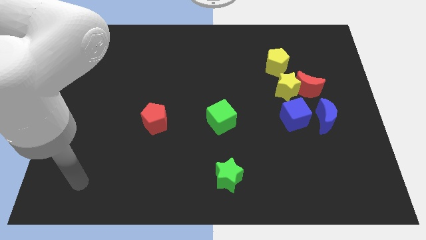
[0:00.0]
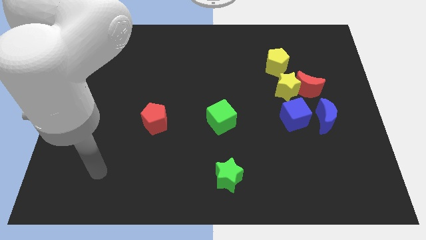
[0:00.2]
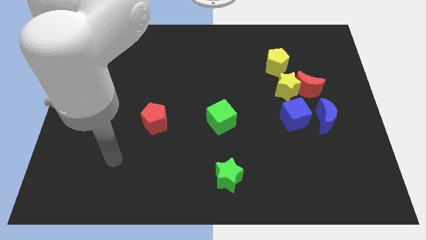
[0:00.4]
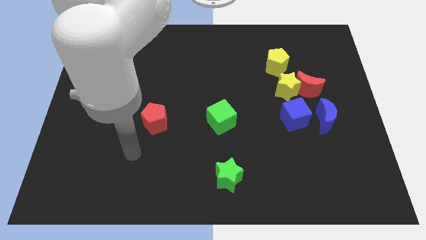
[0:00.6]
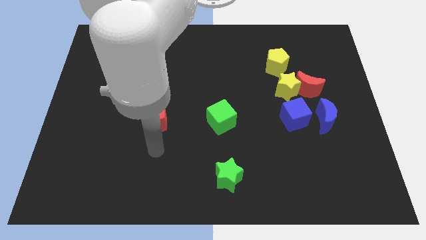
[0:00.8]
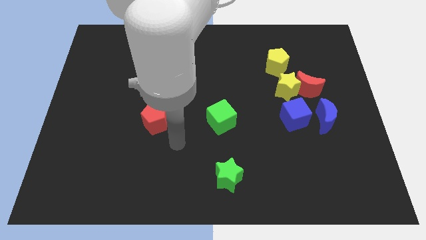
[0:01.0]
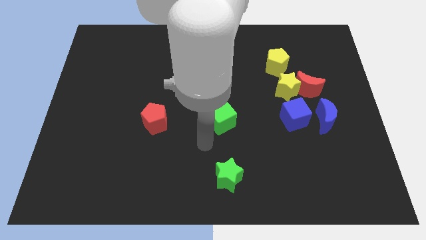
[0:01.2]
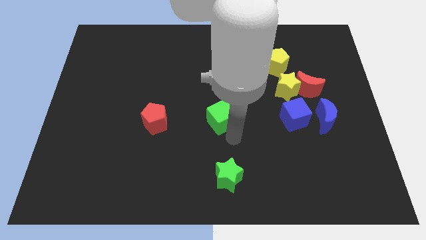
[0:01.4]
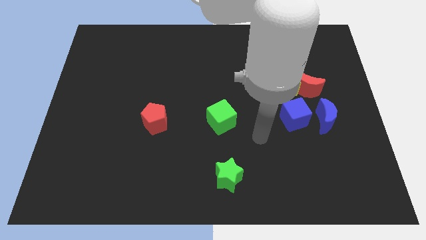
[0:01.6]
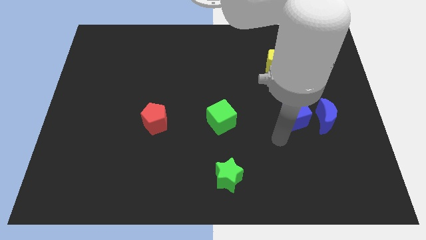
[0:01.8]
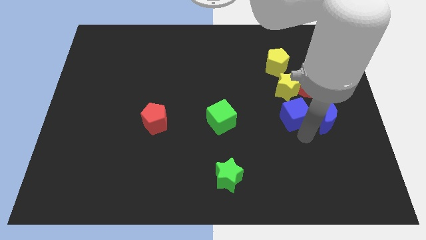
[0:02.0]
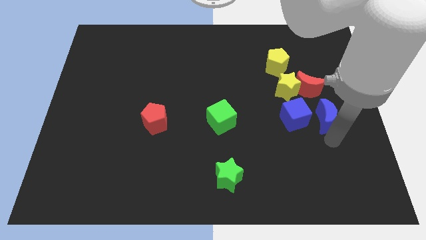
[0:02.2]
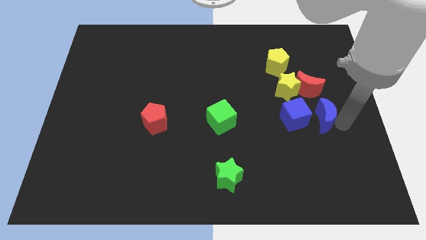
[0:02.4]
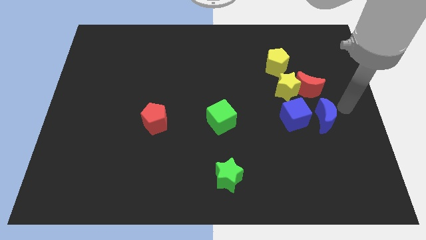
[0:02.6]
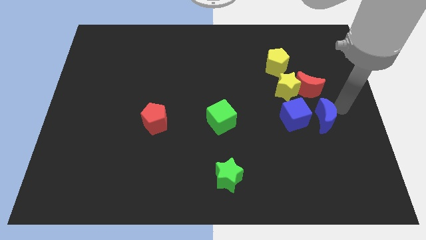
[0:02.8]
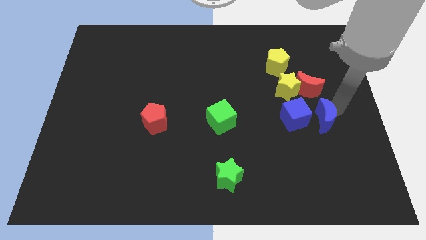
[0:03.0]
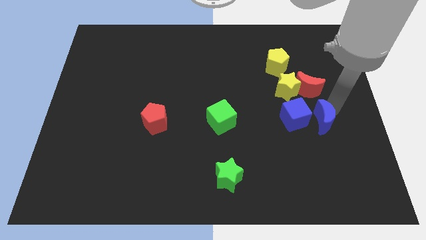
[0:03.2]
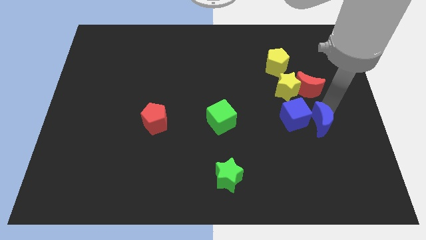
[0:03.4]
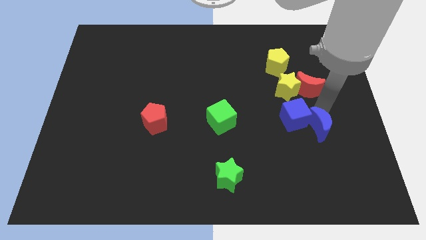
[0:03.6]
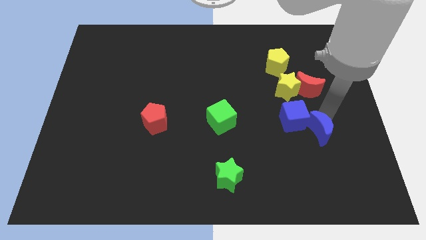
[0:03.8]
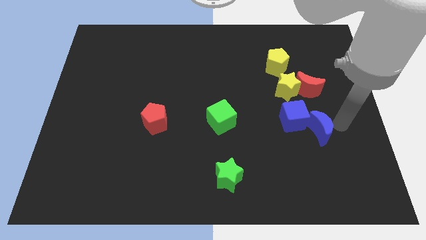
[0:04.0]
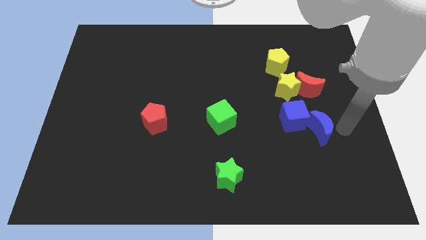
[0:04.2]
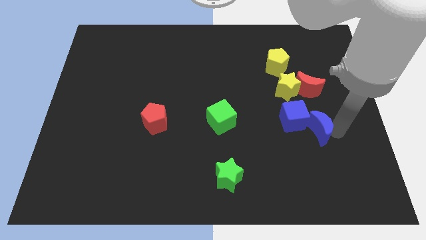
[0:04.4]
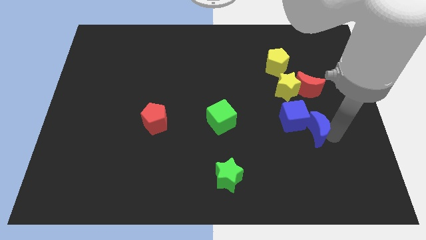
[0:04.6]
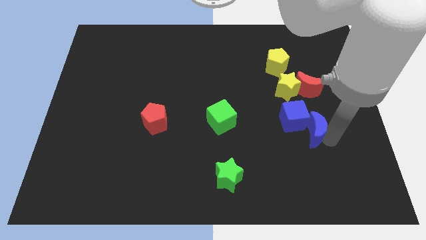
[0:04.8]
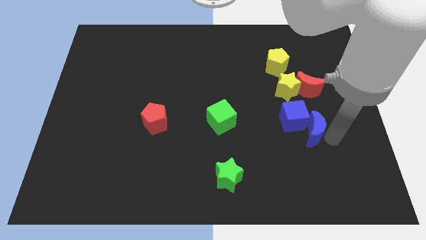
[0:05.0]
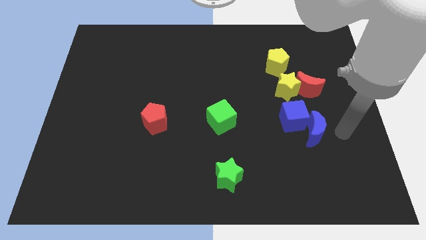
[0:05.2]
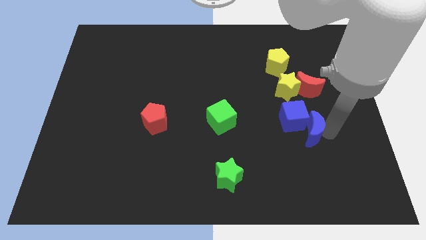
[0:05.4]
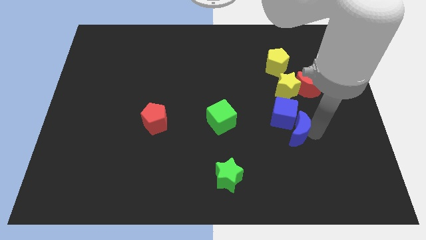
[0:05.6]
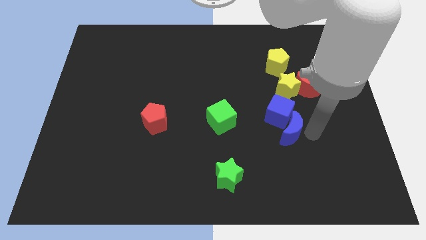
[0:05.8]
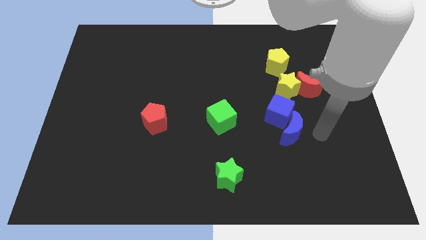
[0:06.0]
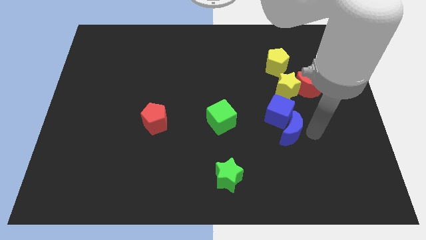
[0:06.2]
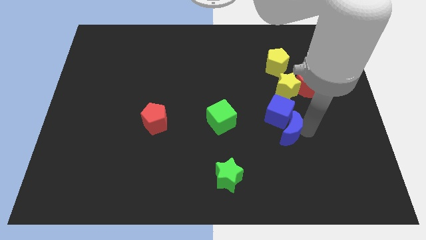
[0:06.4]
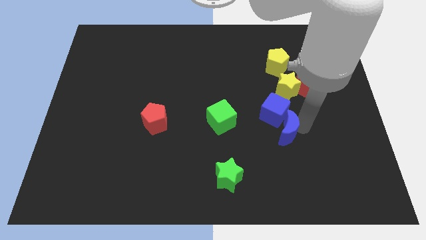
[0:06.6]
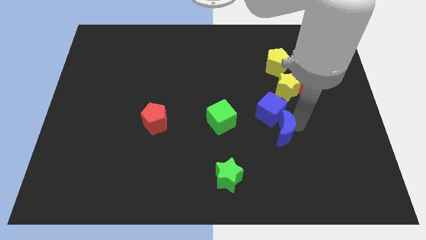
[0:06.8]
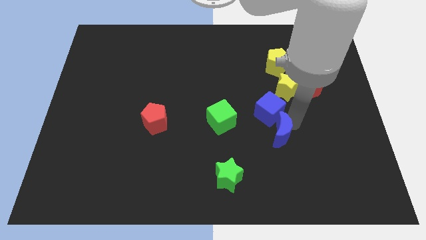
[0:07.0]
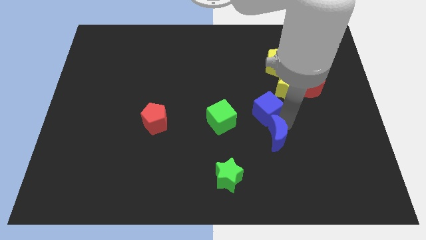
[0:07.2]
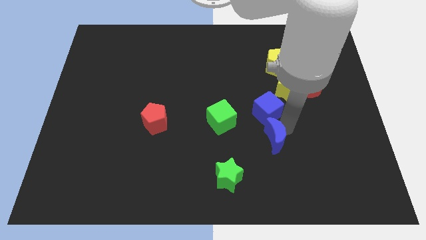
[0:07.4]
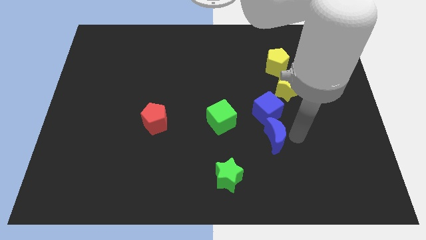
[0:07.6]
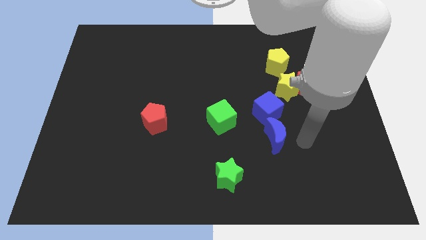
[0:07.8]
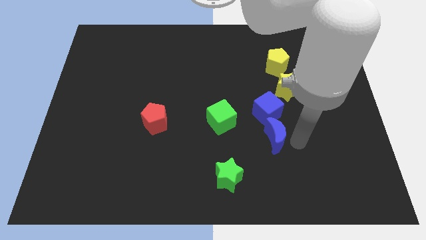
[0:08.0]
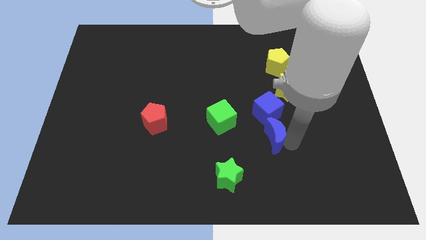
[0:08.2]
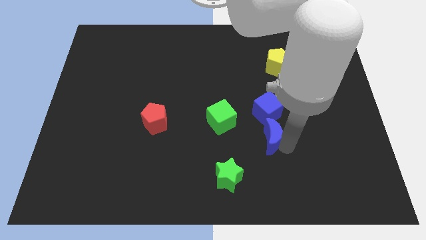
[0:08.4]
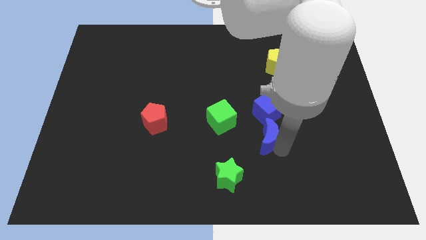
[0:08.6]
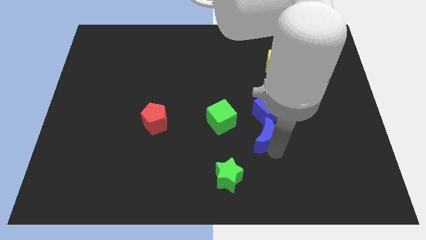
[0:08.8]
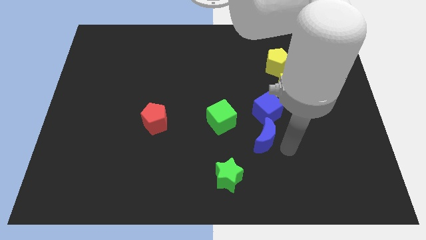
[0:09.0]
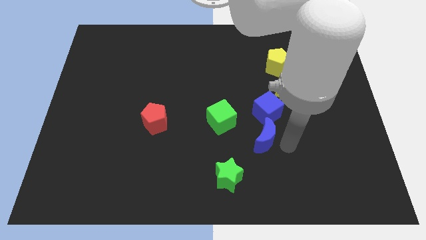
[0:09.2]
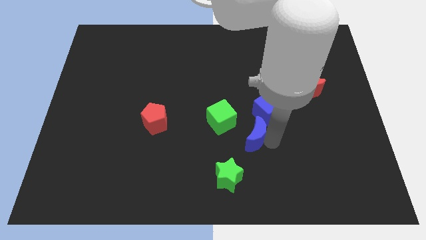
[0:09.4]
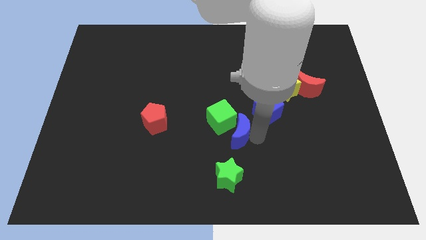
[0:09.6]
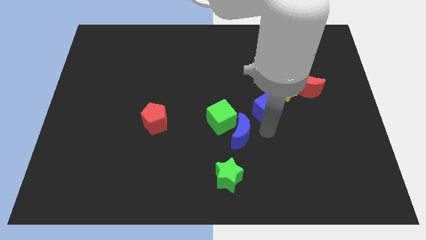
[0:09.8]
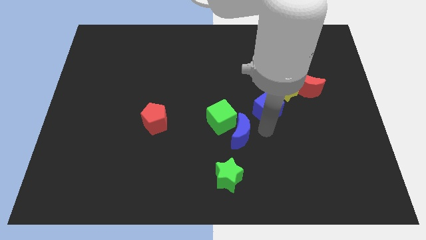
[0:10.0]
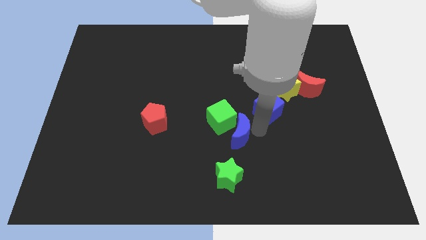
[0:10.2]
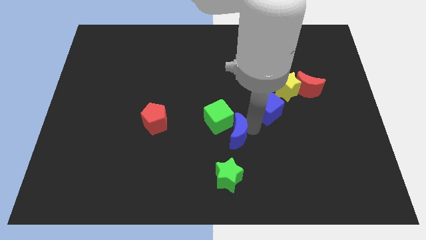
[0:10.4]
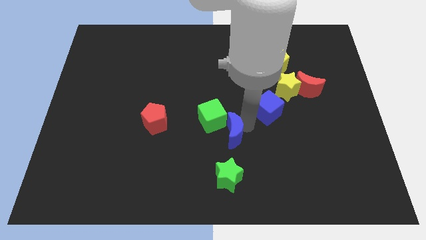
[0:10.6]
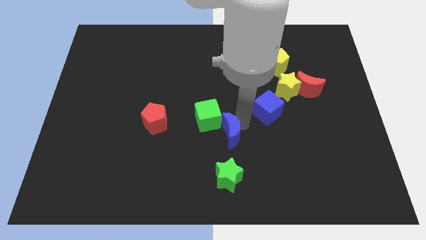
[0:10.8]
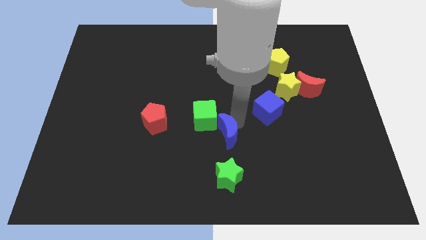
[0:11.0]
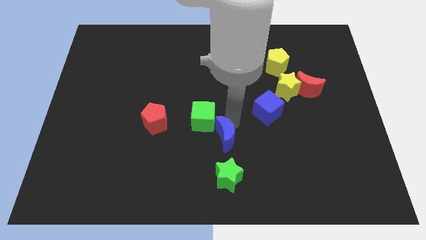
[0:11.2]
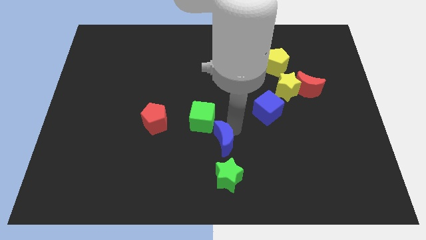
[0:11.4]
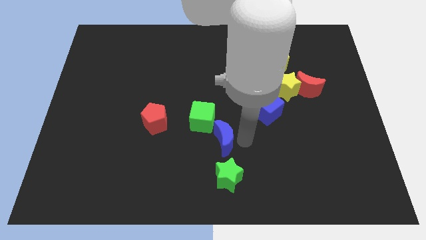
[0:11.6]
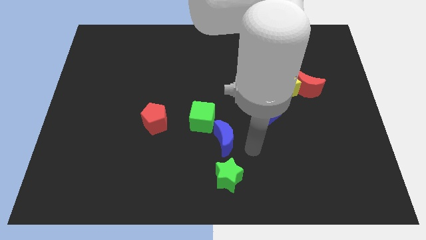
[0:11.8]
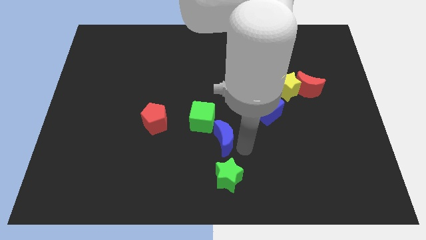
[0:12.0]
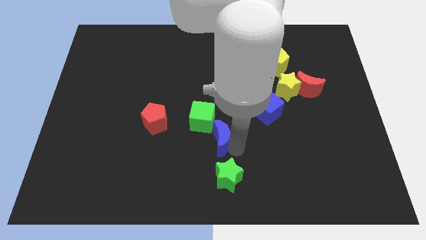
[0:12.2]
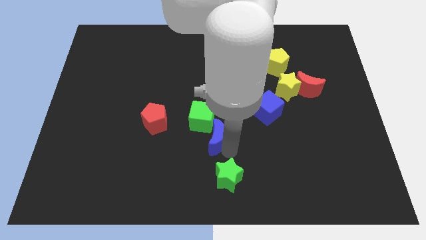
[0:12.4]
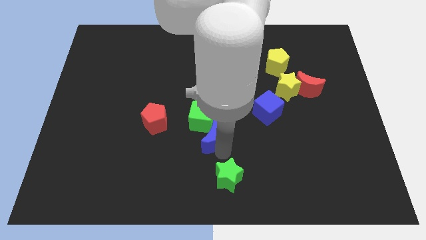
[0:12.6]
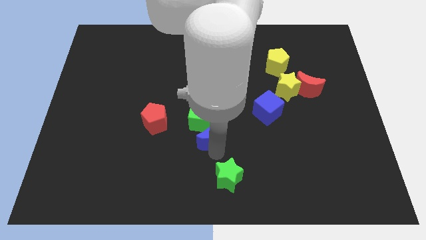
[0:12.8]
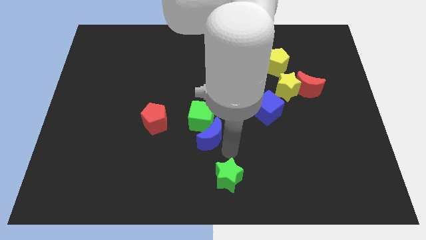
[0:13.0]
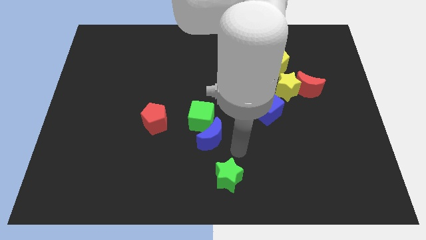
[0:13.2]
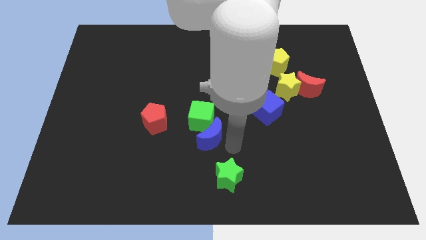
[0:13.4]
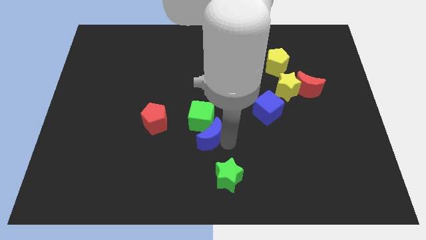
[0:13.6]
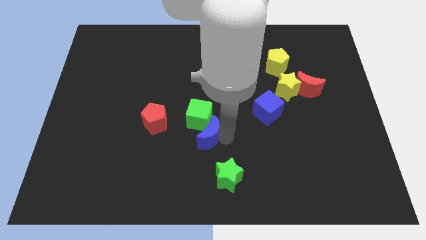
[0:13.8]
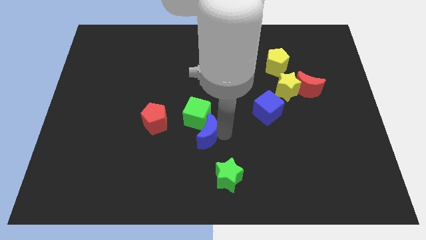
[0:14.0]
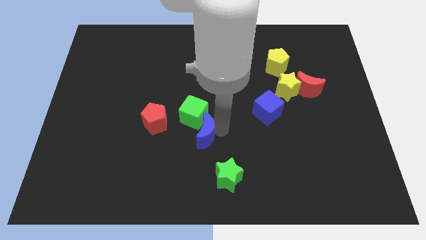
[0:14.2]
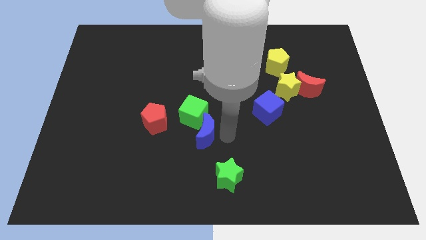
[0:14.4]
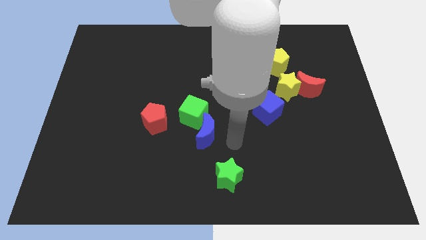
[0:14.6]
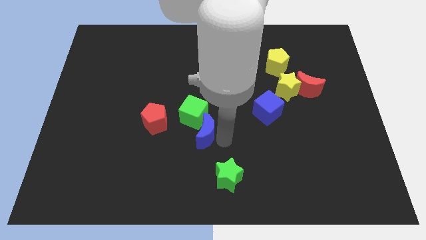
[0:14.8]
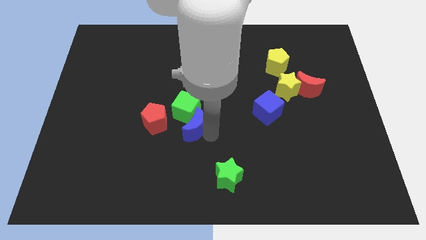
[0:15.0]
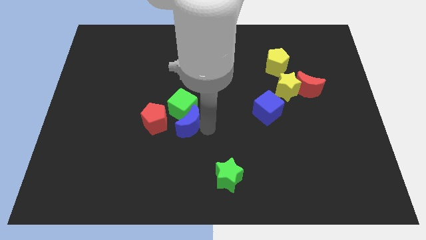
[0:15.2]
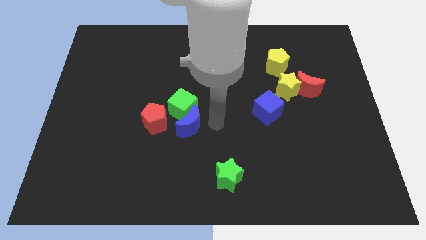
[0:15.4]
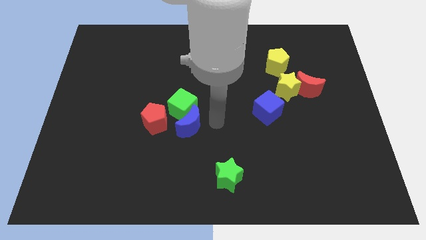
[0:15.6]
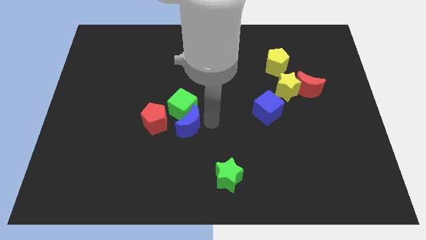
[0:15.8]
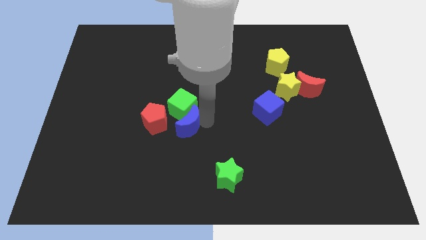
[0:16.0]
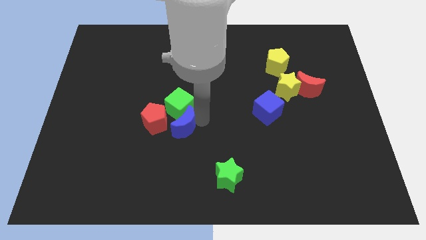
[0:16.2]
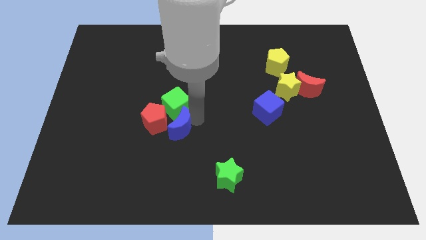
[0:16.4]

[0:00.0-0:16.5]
move the blue moon close to the red pentagon
